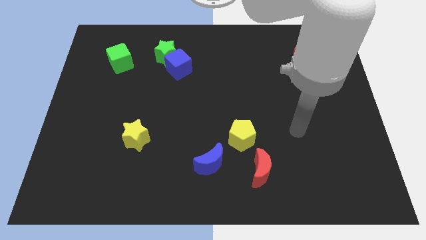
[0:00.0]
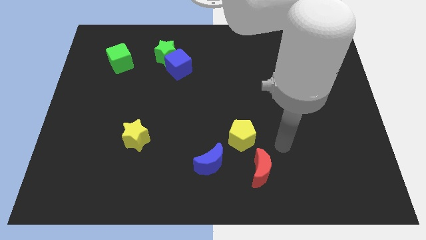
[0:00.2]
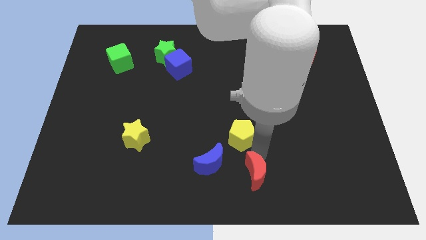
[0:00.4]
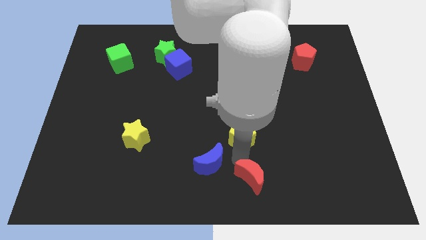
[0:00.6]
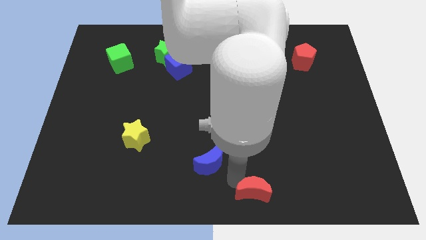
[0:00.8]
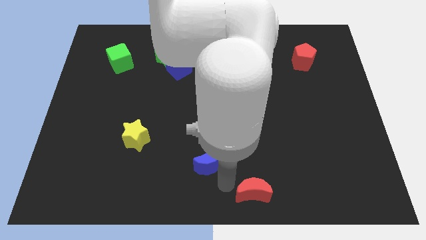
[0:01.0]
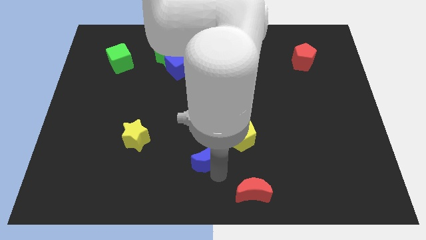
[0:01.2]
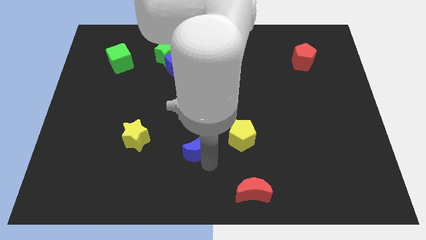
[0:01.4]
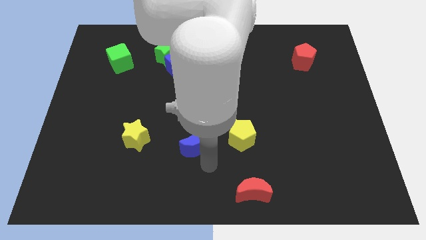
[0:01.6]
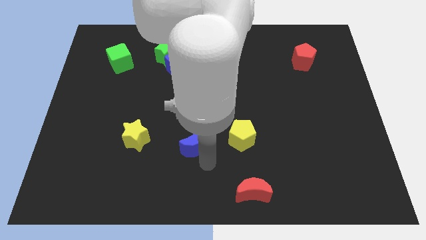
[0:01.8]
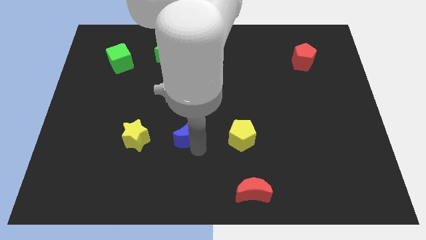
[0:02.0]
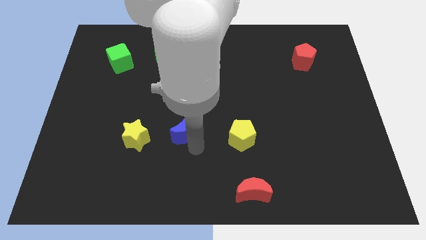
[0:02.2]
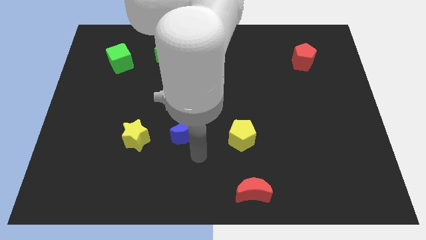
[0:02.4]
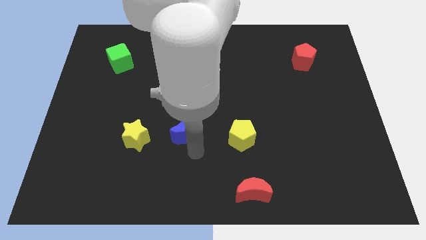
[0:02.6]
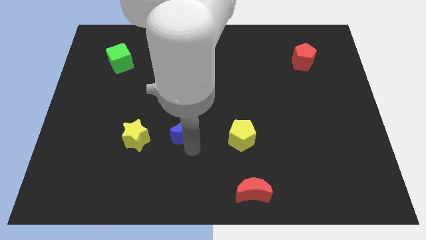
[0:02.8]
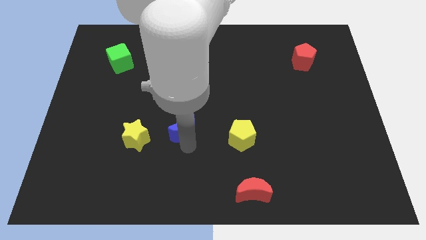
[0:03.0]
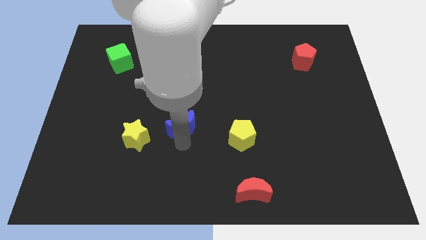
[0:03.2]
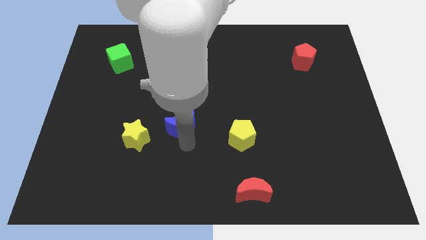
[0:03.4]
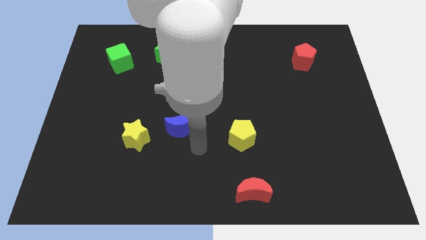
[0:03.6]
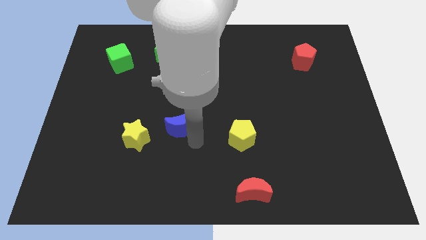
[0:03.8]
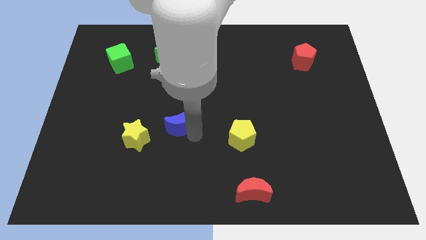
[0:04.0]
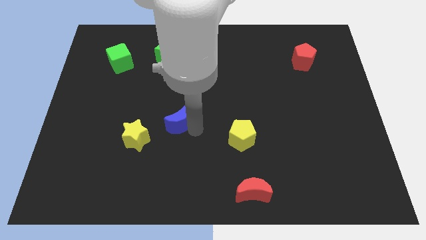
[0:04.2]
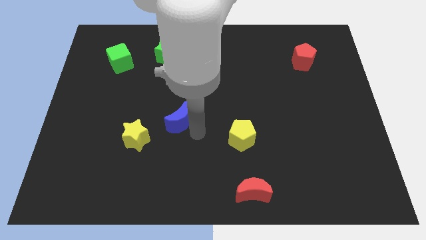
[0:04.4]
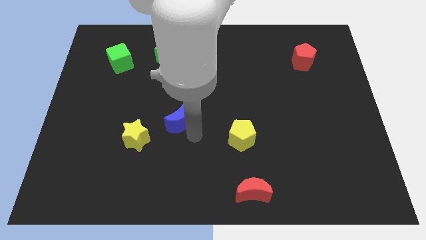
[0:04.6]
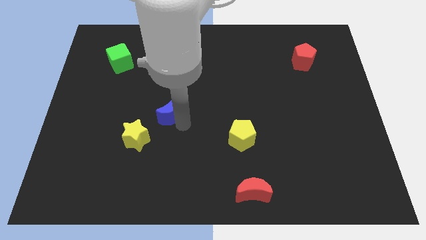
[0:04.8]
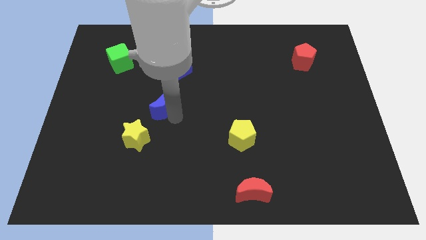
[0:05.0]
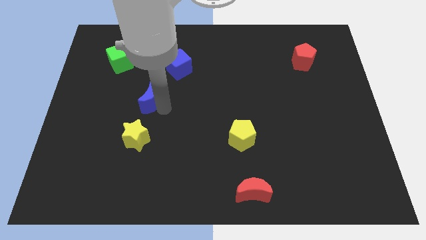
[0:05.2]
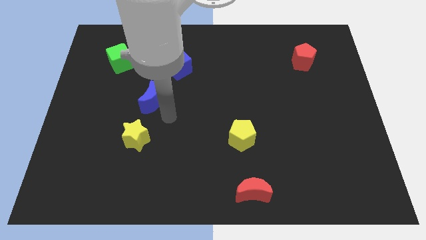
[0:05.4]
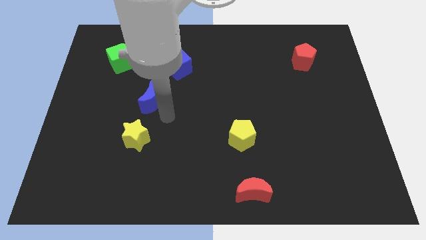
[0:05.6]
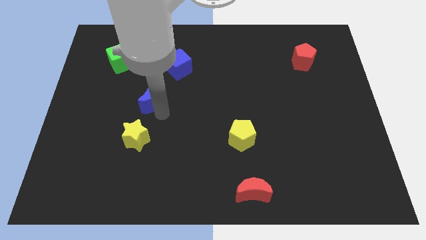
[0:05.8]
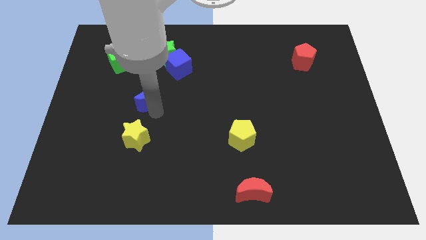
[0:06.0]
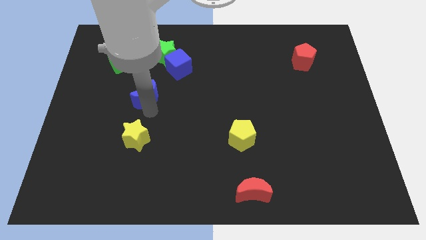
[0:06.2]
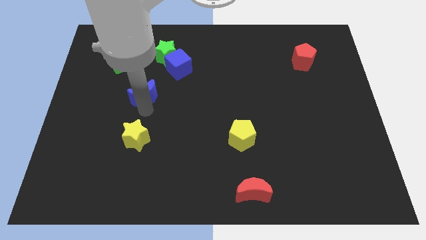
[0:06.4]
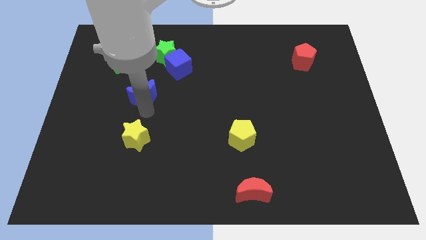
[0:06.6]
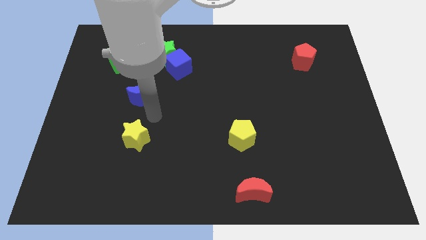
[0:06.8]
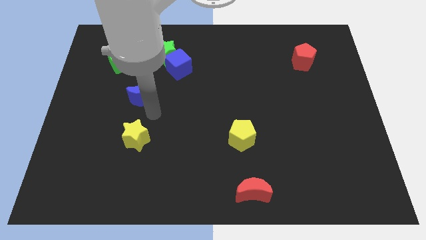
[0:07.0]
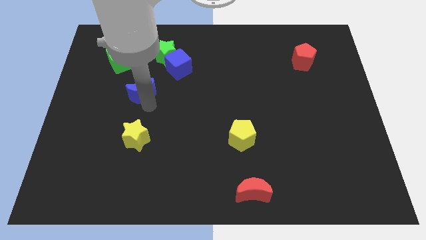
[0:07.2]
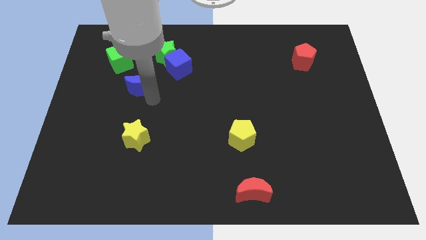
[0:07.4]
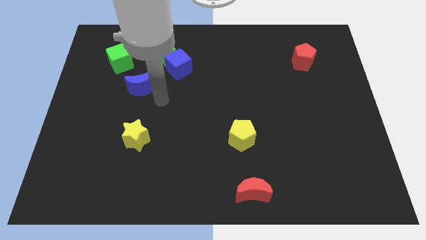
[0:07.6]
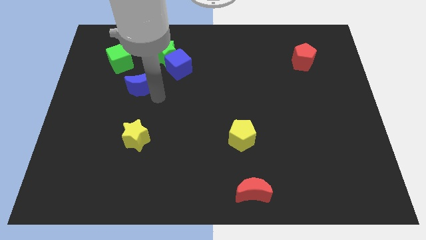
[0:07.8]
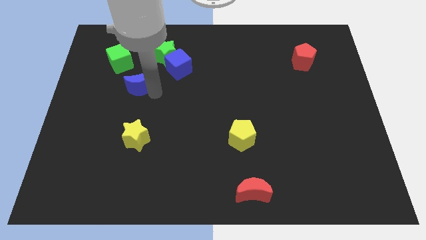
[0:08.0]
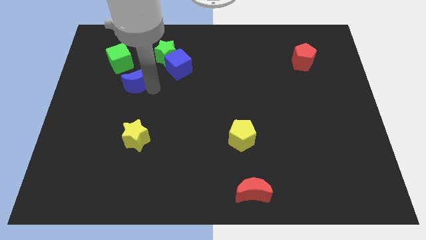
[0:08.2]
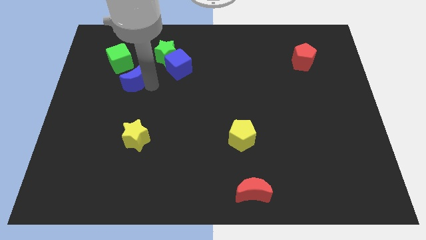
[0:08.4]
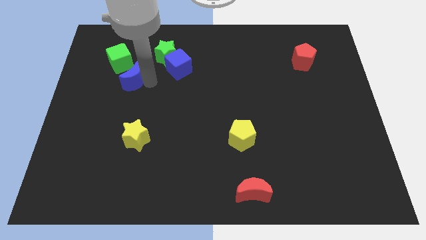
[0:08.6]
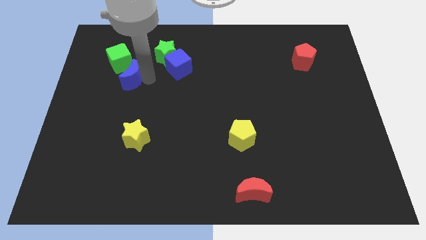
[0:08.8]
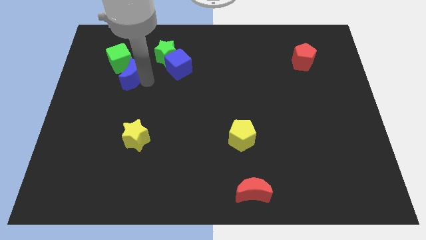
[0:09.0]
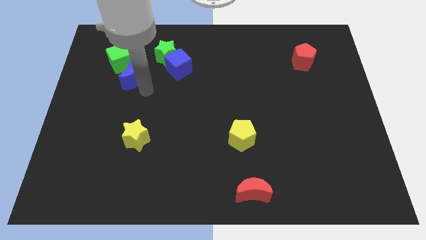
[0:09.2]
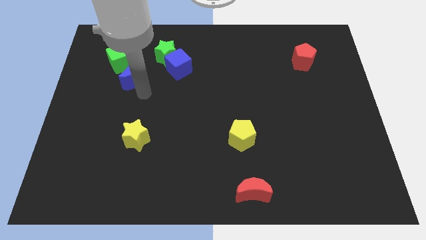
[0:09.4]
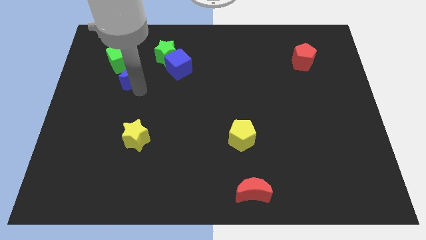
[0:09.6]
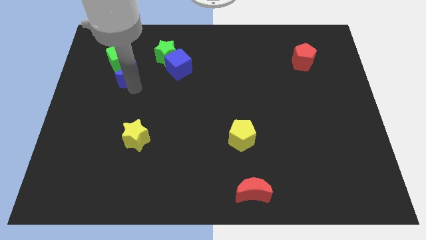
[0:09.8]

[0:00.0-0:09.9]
move the blue moon next to the green cube

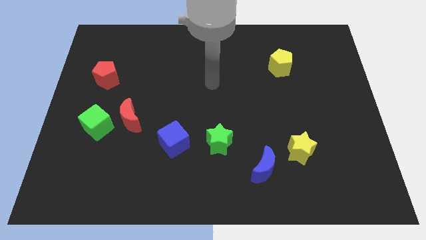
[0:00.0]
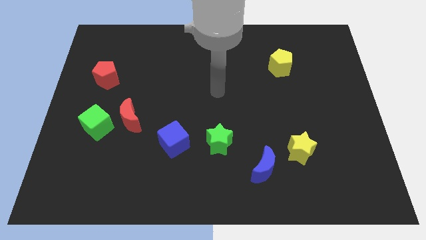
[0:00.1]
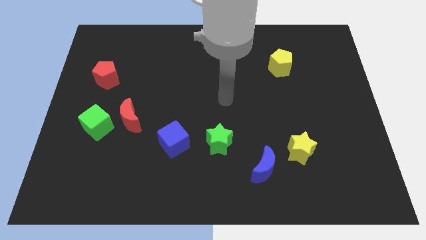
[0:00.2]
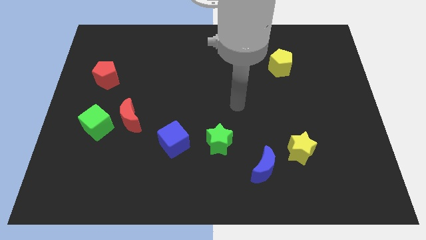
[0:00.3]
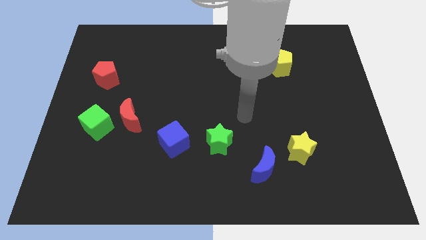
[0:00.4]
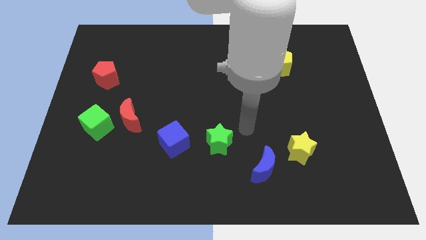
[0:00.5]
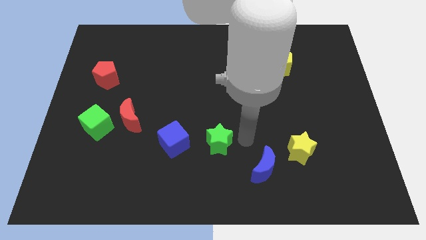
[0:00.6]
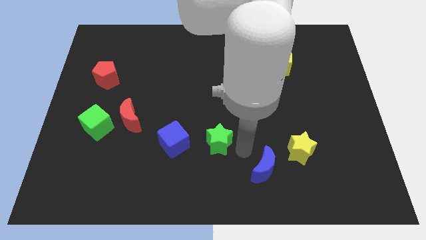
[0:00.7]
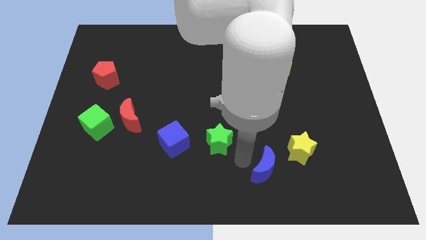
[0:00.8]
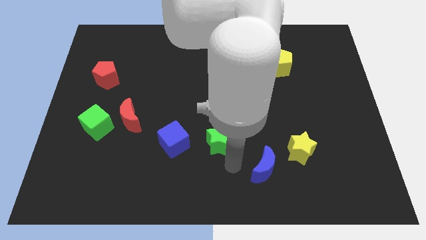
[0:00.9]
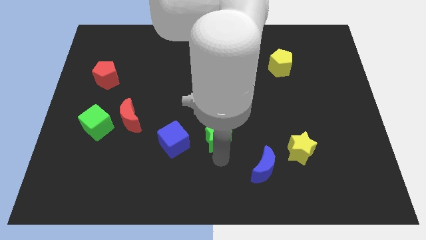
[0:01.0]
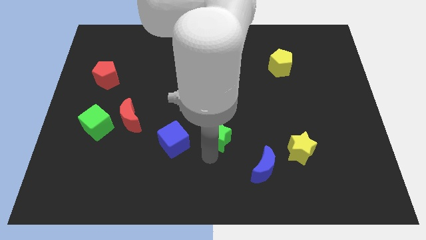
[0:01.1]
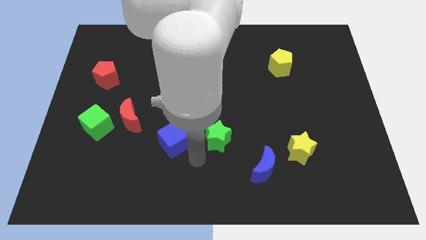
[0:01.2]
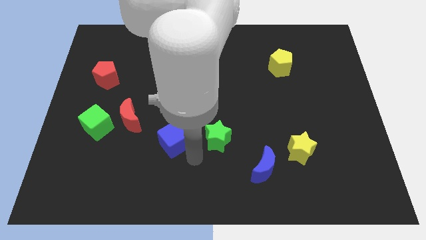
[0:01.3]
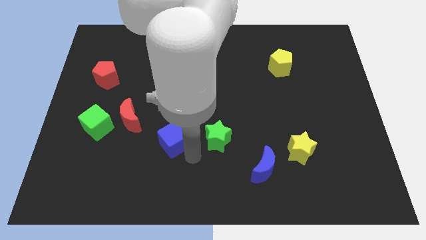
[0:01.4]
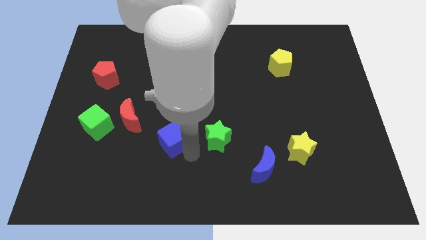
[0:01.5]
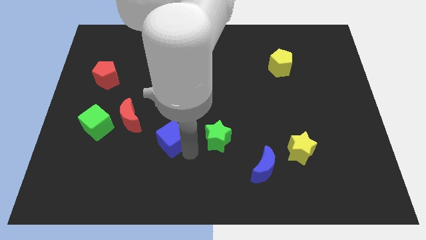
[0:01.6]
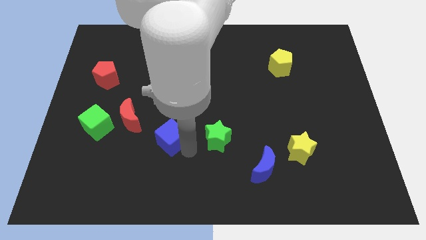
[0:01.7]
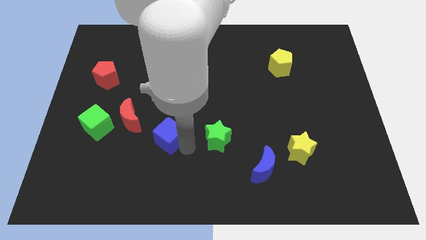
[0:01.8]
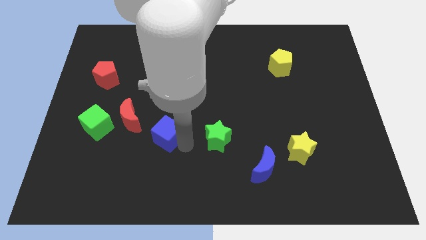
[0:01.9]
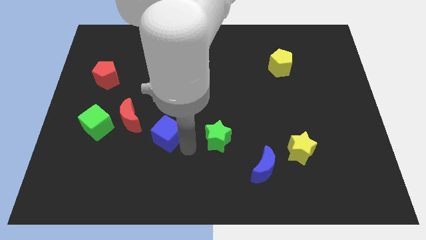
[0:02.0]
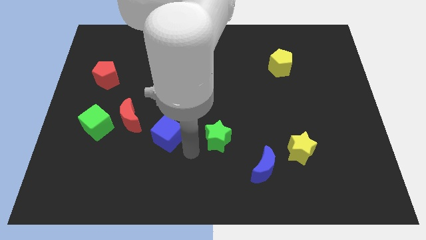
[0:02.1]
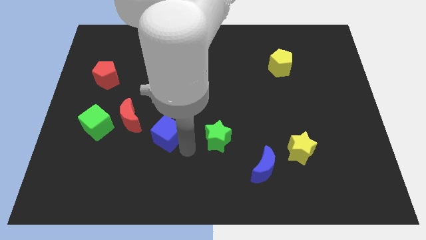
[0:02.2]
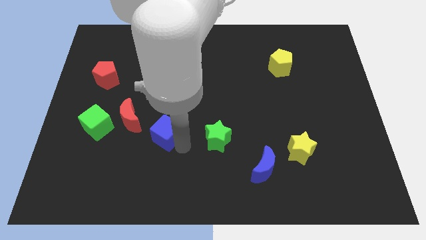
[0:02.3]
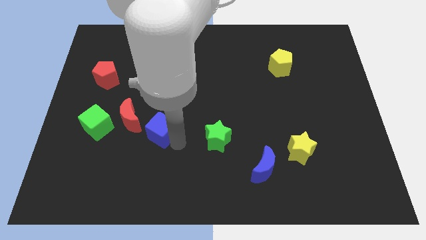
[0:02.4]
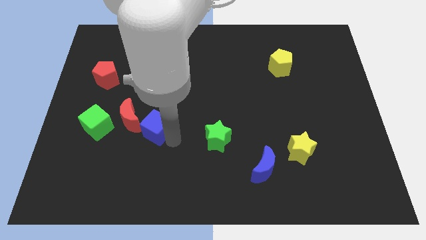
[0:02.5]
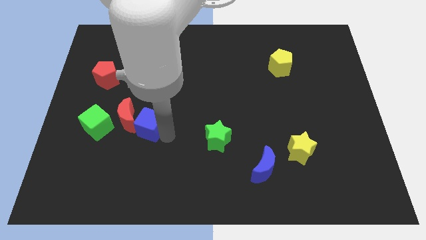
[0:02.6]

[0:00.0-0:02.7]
slide the blue cube to the red moon
